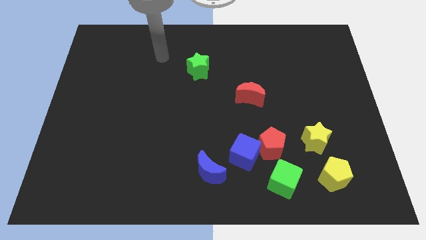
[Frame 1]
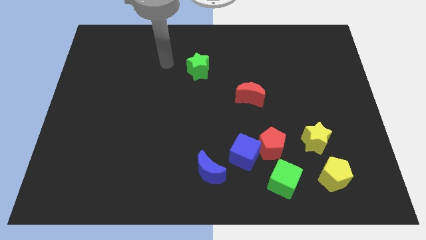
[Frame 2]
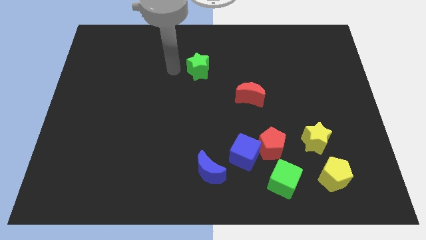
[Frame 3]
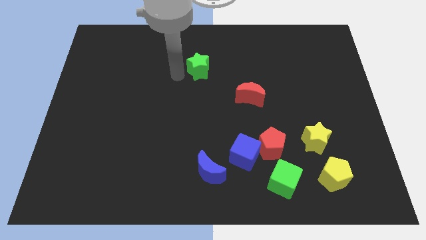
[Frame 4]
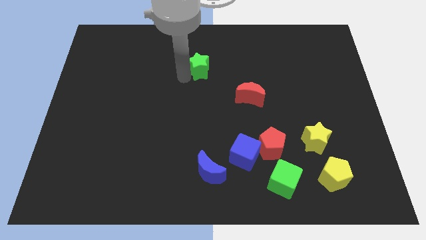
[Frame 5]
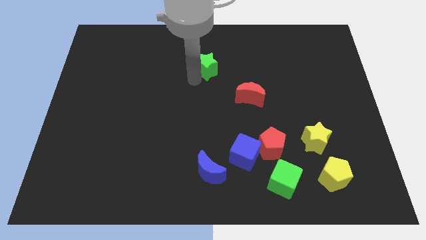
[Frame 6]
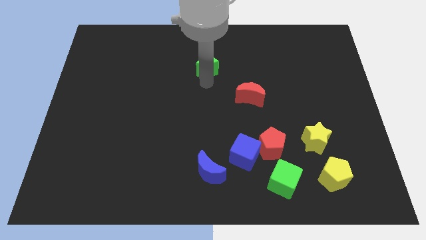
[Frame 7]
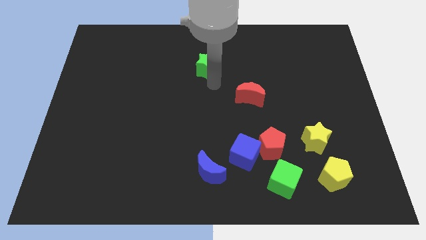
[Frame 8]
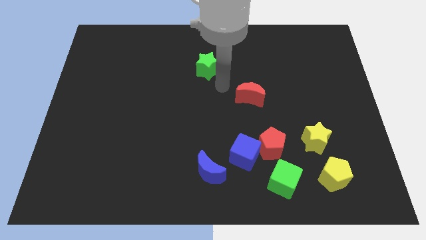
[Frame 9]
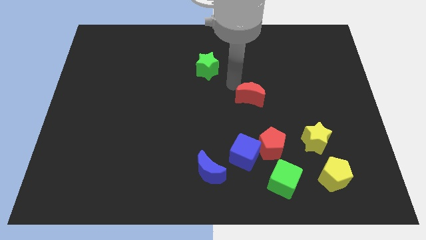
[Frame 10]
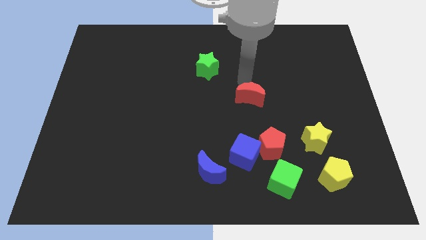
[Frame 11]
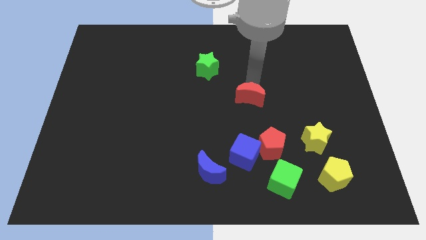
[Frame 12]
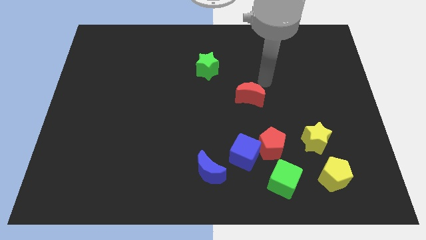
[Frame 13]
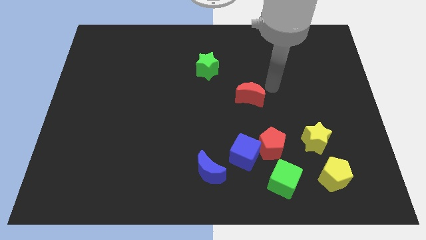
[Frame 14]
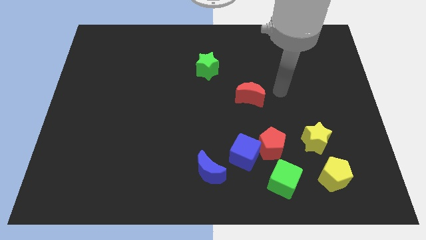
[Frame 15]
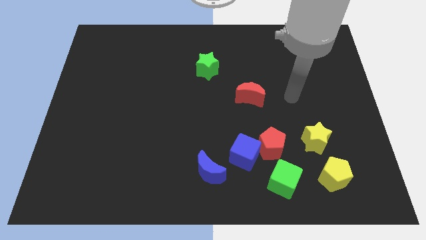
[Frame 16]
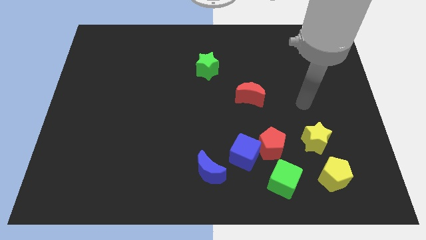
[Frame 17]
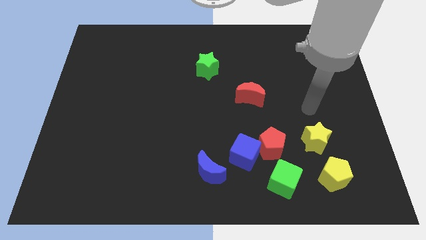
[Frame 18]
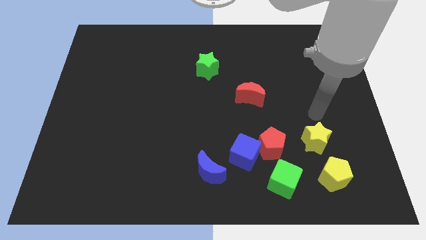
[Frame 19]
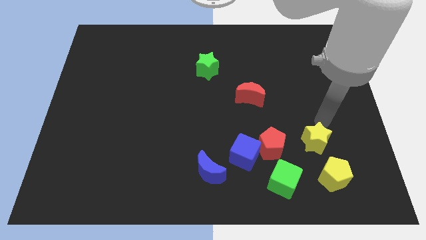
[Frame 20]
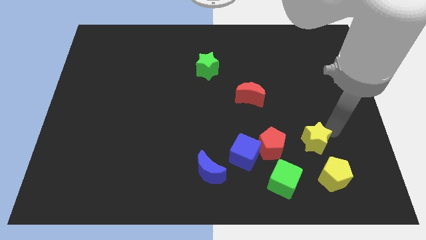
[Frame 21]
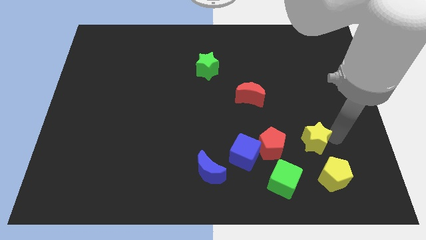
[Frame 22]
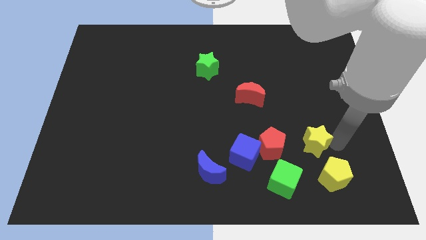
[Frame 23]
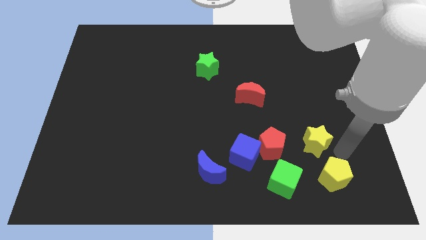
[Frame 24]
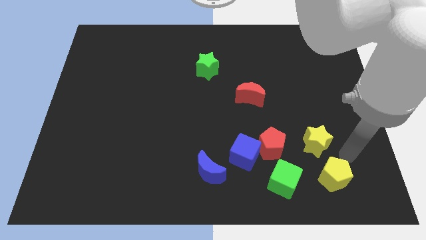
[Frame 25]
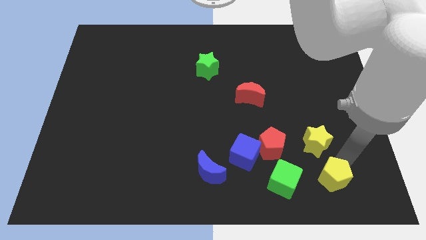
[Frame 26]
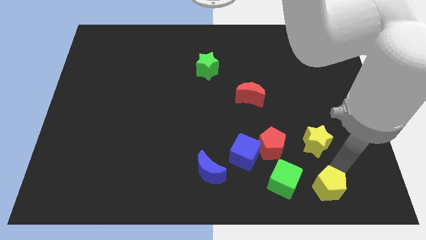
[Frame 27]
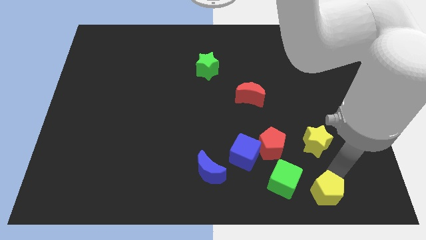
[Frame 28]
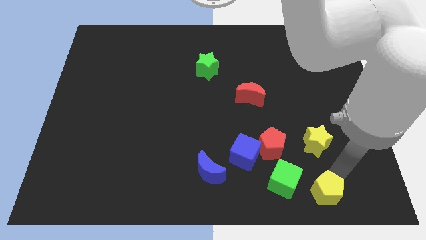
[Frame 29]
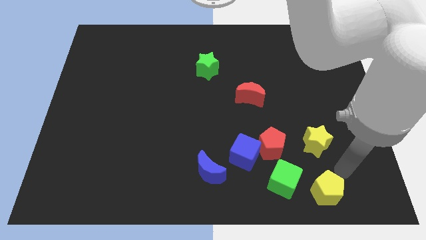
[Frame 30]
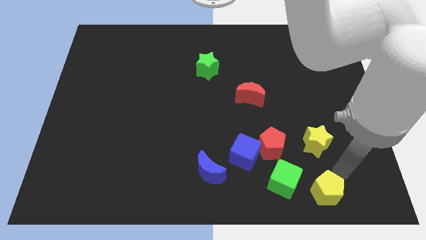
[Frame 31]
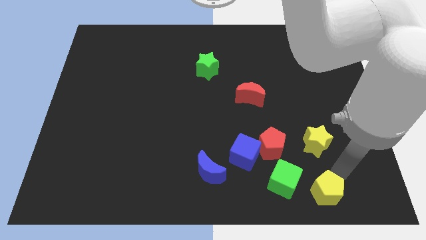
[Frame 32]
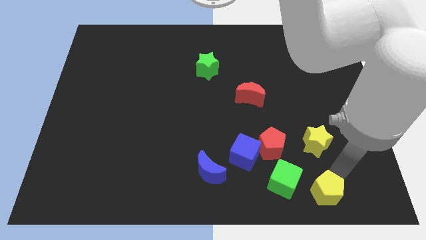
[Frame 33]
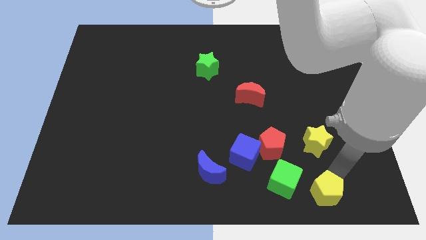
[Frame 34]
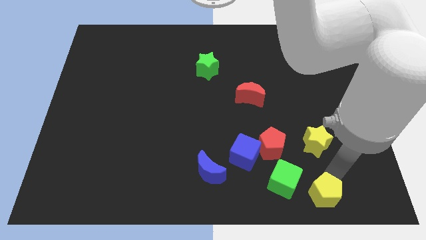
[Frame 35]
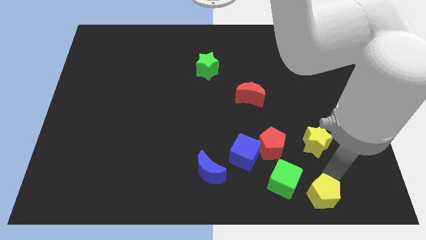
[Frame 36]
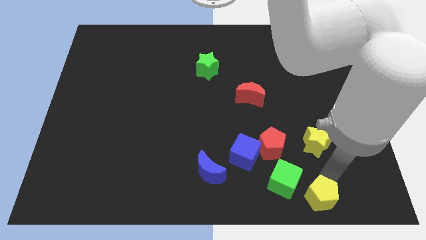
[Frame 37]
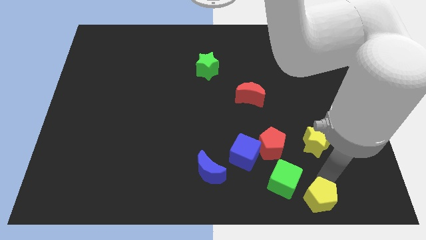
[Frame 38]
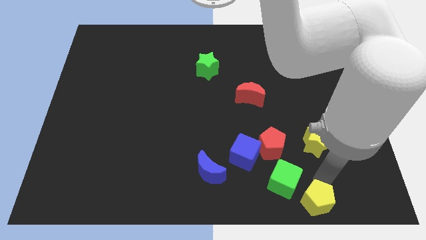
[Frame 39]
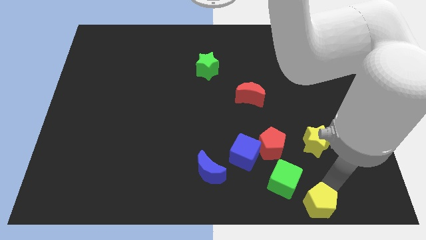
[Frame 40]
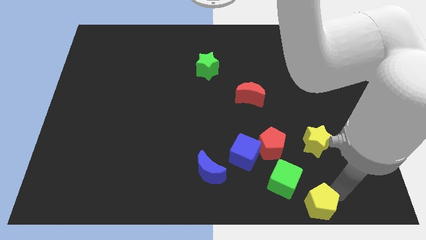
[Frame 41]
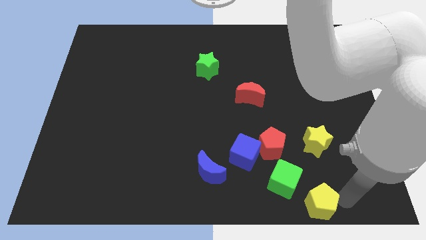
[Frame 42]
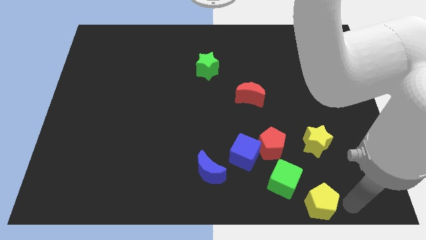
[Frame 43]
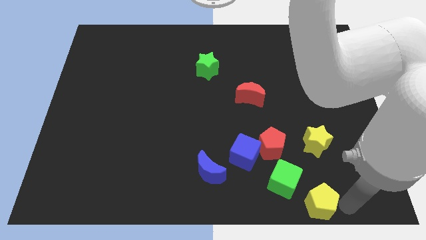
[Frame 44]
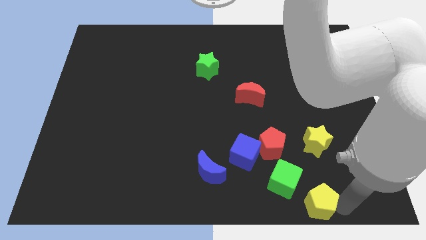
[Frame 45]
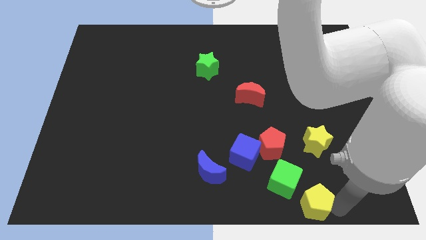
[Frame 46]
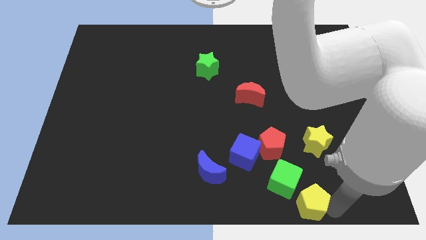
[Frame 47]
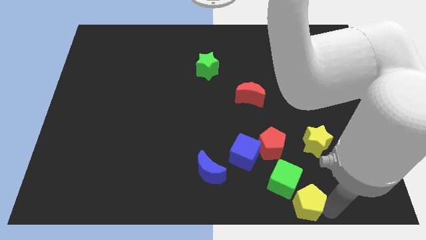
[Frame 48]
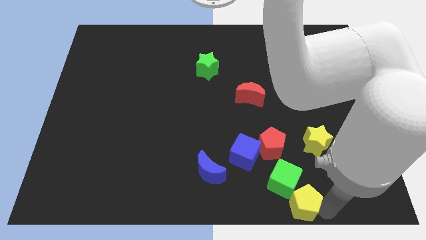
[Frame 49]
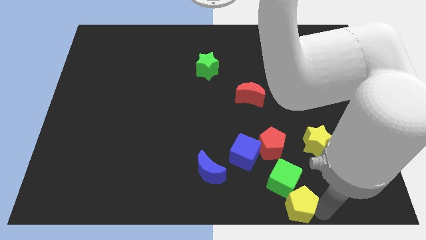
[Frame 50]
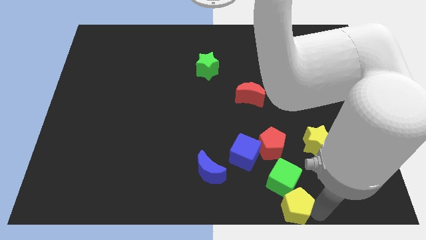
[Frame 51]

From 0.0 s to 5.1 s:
move the yellow pentagon slightly to the left

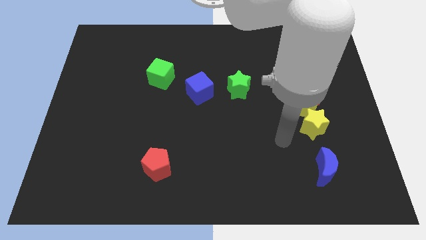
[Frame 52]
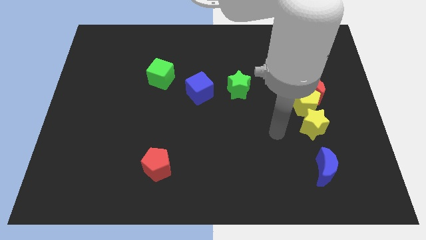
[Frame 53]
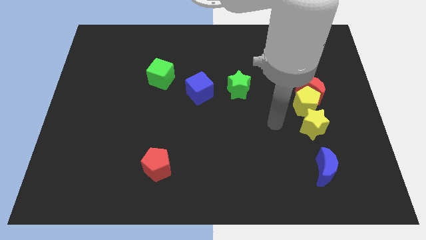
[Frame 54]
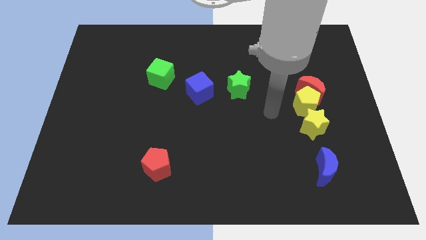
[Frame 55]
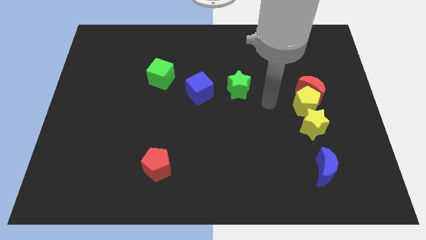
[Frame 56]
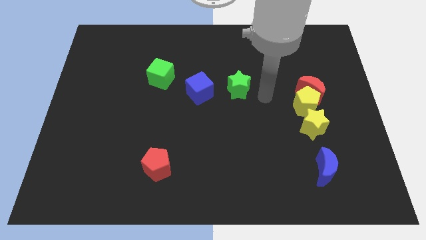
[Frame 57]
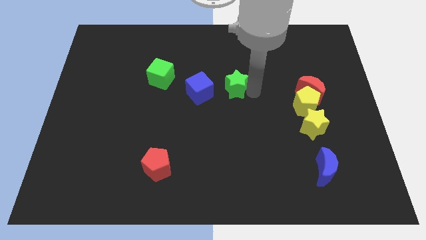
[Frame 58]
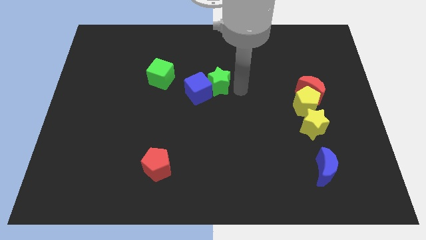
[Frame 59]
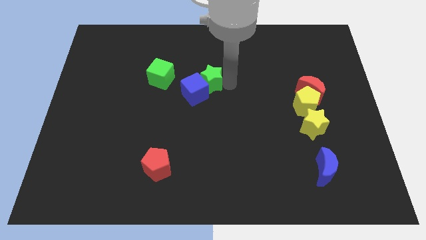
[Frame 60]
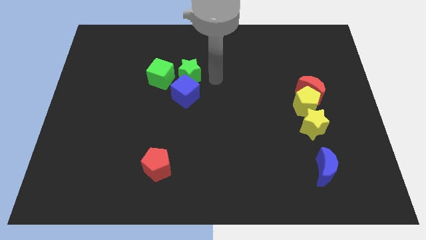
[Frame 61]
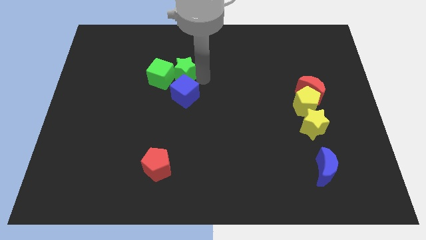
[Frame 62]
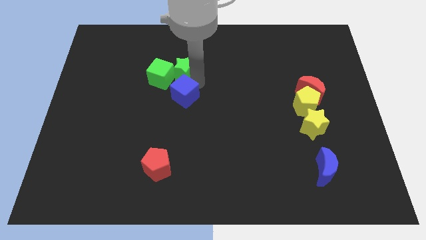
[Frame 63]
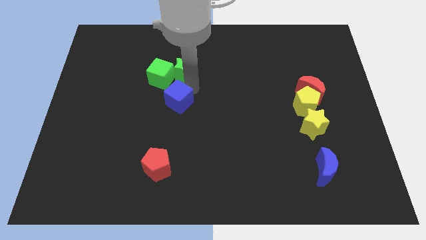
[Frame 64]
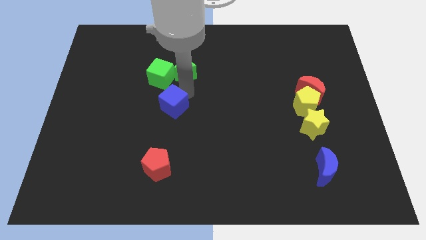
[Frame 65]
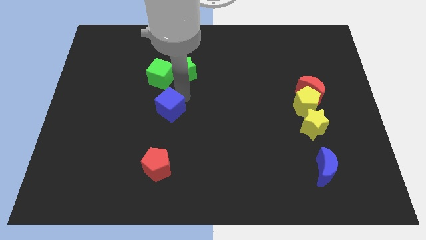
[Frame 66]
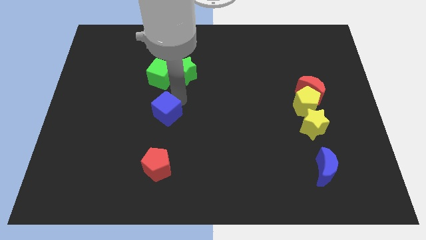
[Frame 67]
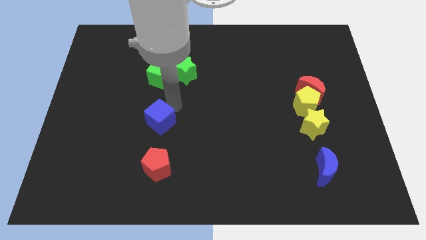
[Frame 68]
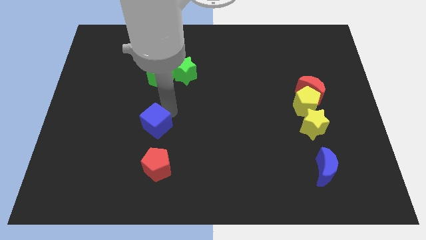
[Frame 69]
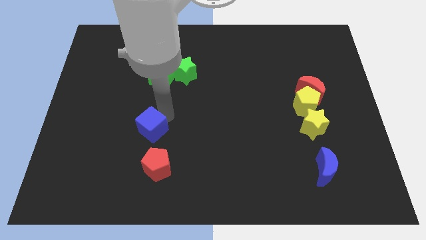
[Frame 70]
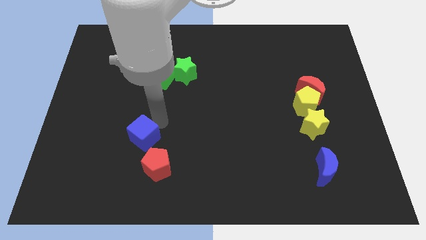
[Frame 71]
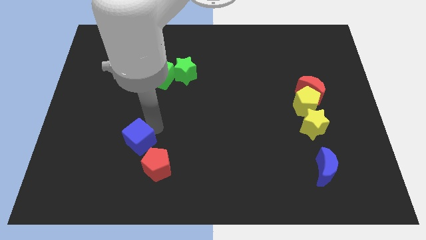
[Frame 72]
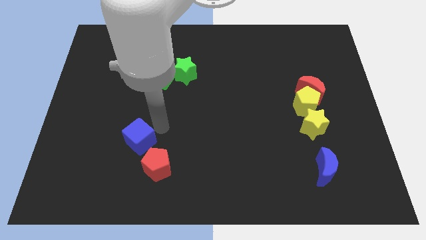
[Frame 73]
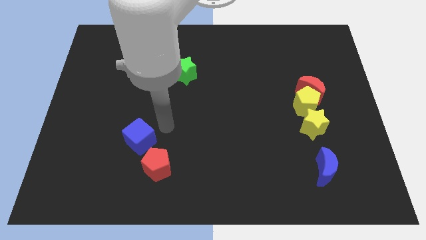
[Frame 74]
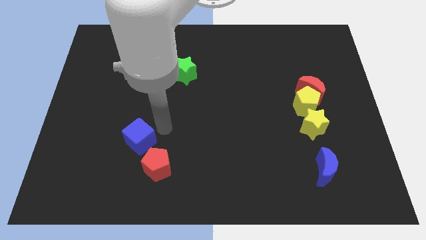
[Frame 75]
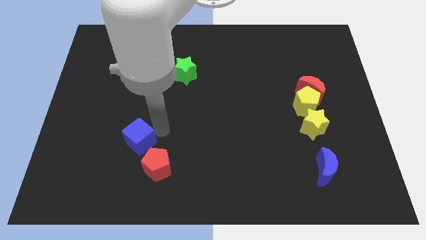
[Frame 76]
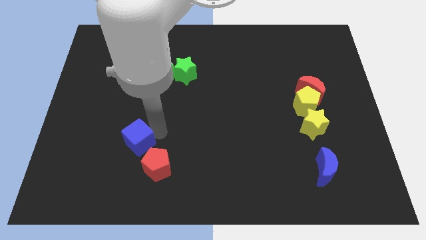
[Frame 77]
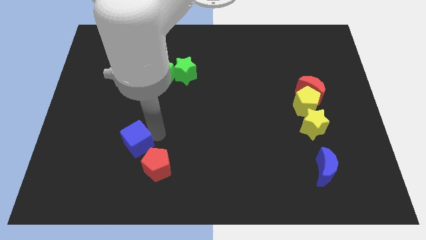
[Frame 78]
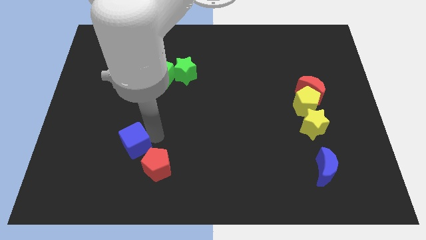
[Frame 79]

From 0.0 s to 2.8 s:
push the blue cube diagonally downwards and left

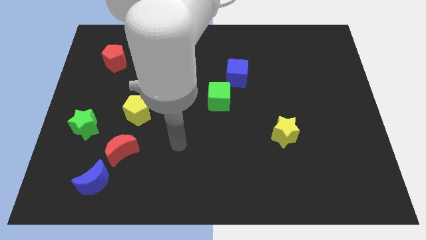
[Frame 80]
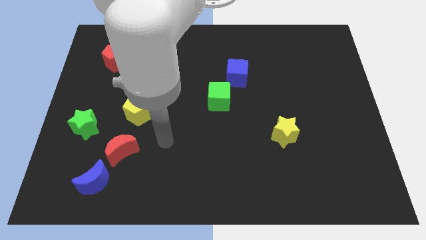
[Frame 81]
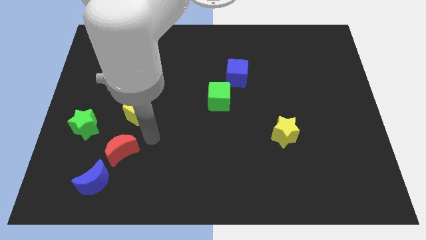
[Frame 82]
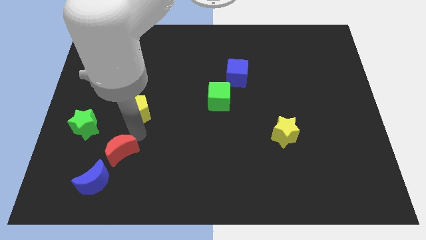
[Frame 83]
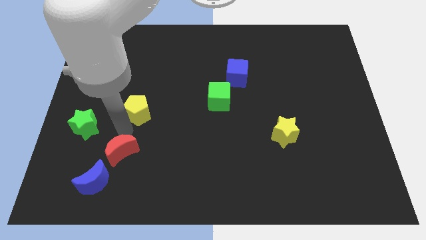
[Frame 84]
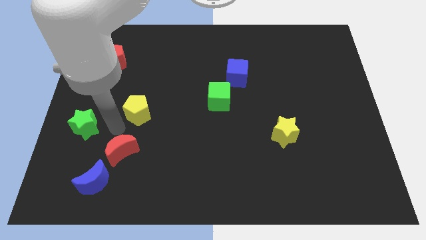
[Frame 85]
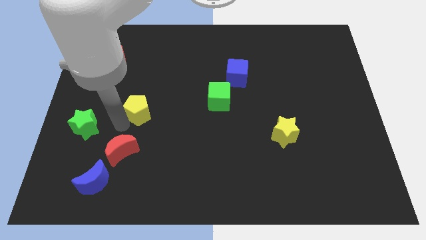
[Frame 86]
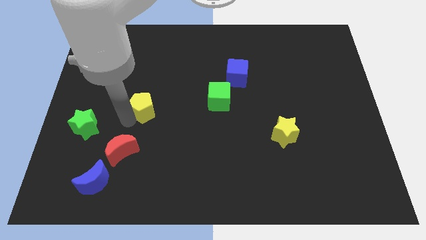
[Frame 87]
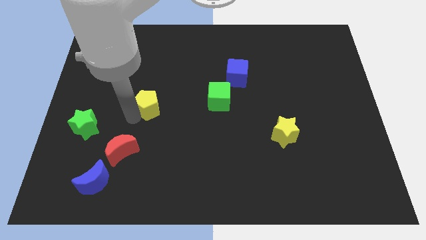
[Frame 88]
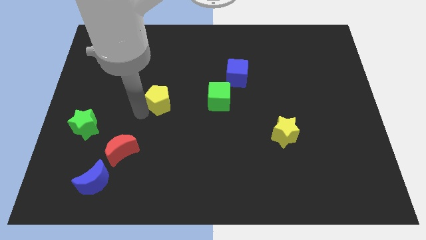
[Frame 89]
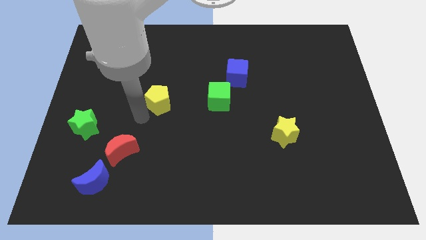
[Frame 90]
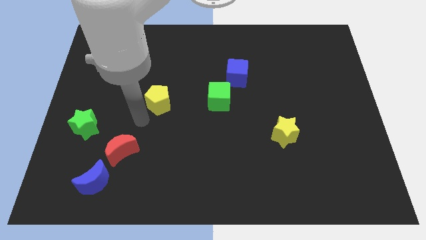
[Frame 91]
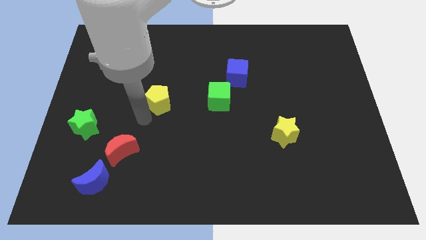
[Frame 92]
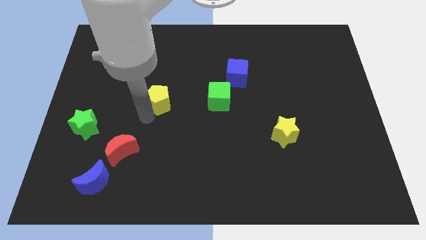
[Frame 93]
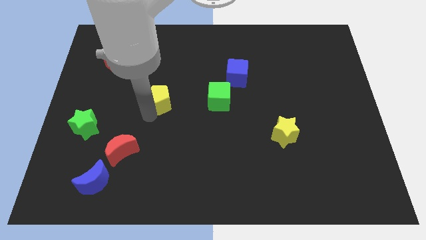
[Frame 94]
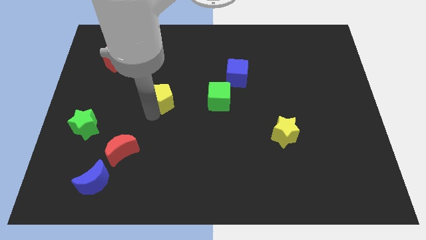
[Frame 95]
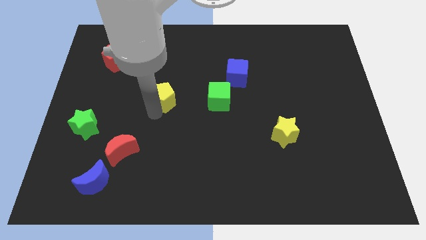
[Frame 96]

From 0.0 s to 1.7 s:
push the yellow pentagon upwards and then right a bit
